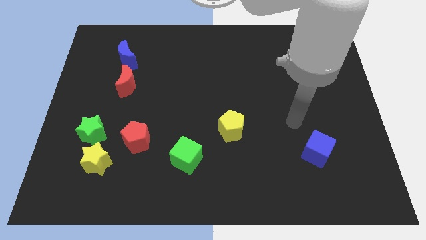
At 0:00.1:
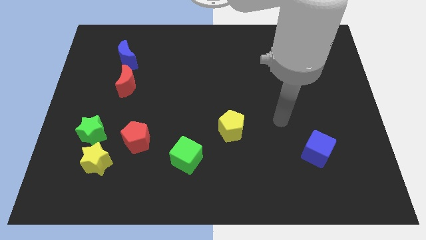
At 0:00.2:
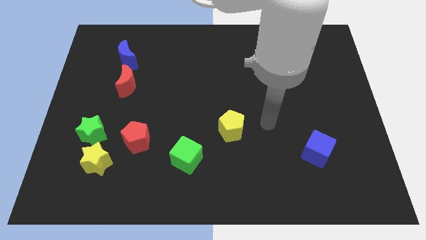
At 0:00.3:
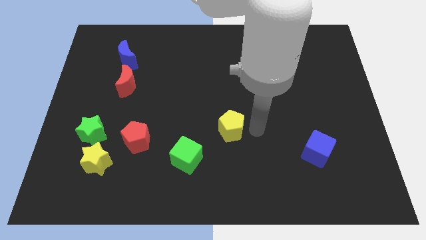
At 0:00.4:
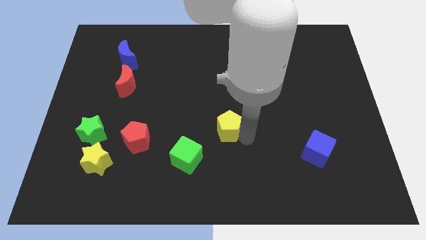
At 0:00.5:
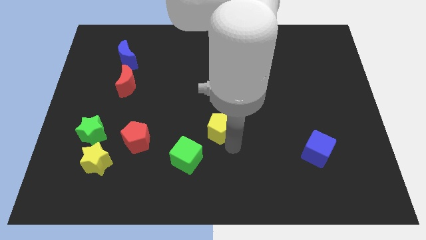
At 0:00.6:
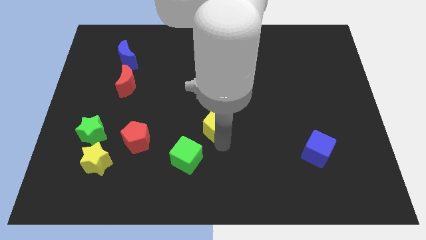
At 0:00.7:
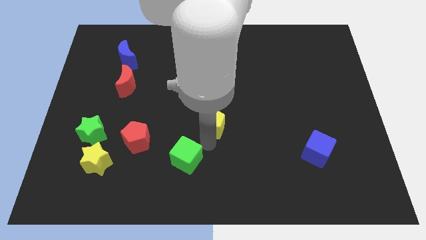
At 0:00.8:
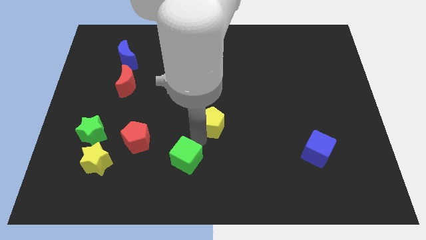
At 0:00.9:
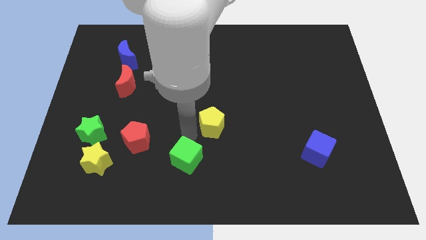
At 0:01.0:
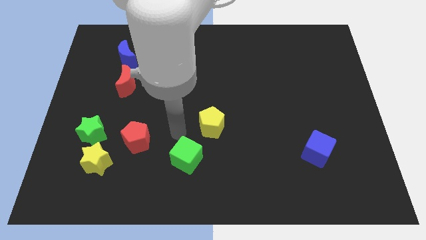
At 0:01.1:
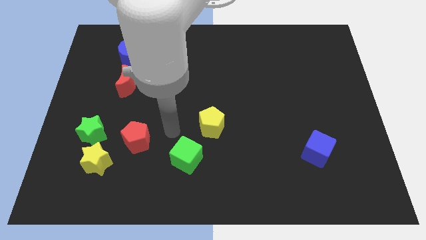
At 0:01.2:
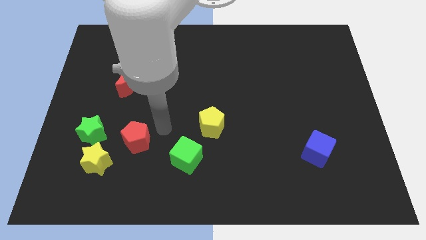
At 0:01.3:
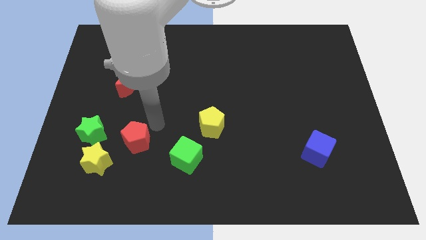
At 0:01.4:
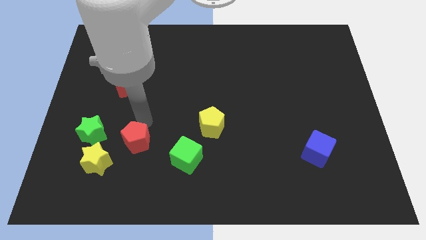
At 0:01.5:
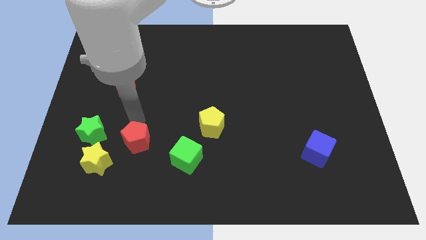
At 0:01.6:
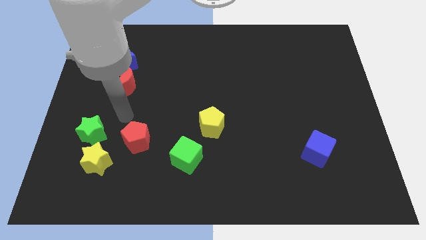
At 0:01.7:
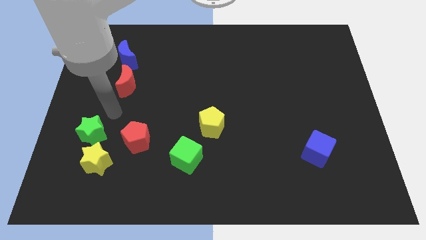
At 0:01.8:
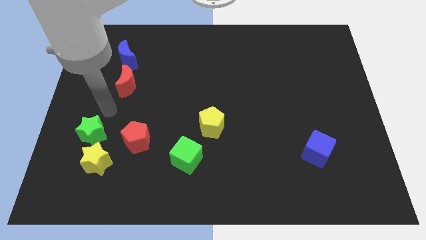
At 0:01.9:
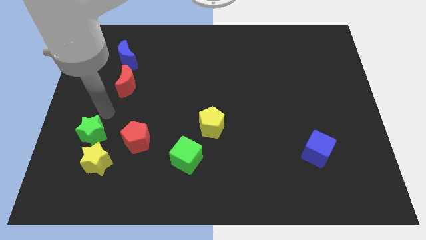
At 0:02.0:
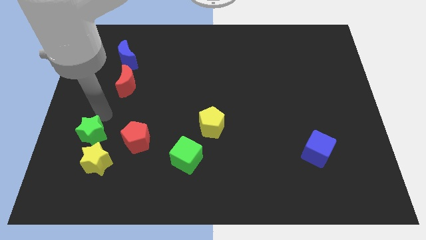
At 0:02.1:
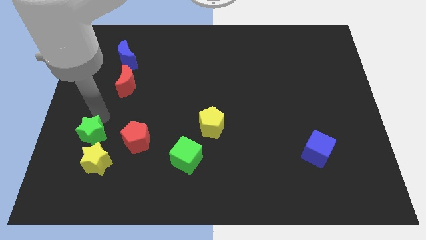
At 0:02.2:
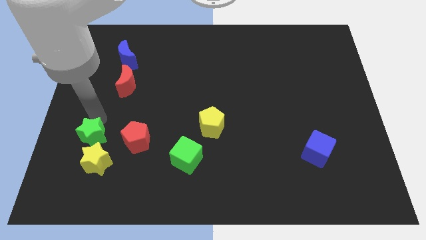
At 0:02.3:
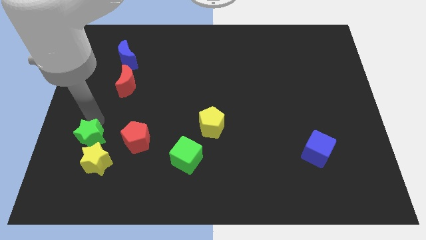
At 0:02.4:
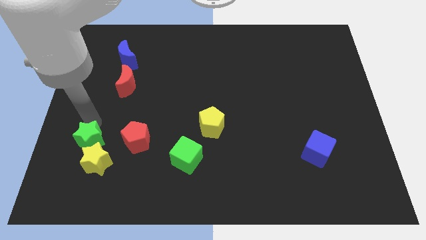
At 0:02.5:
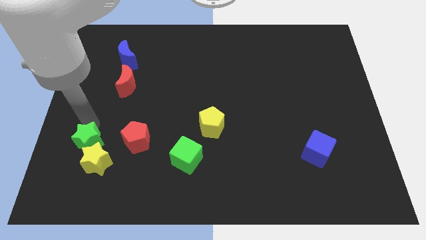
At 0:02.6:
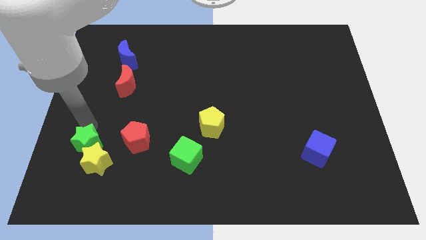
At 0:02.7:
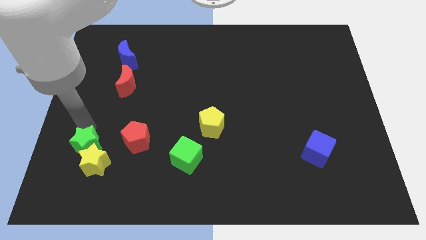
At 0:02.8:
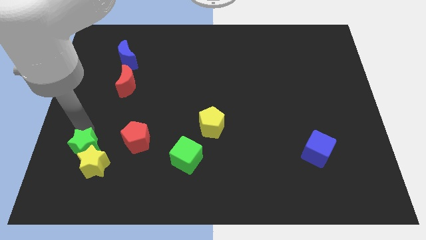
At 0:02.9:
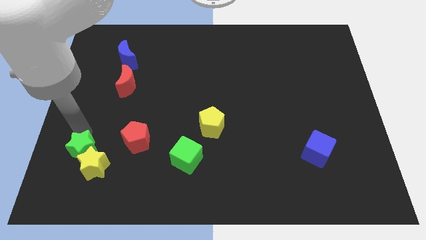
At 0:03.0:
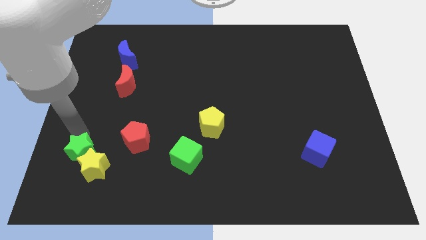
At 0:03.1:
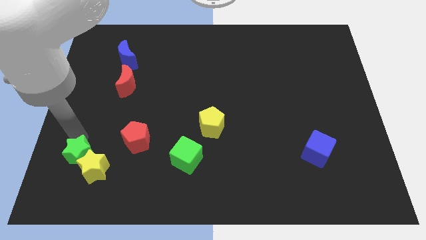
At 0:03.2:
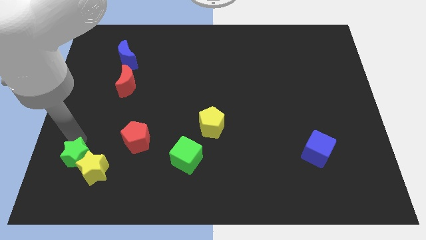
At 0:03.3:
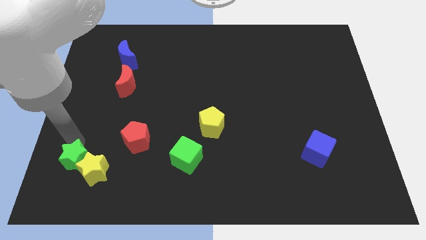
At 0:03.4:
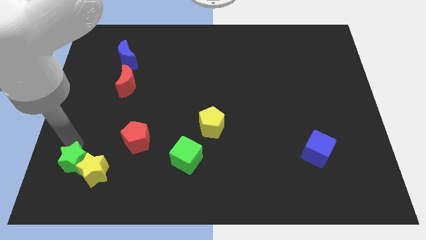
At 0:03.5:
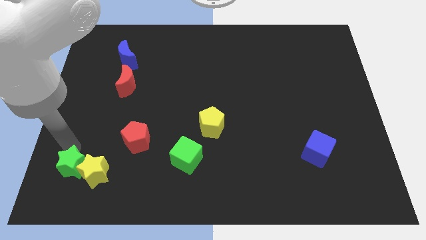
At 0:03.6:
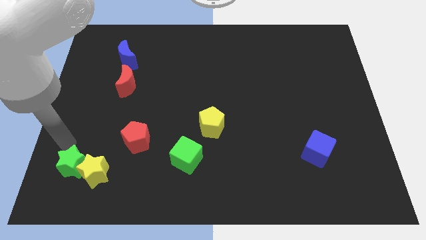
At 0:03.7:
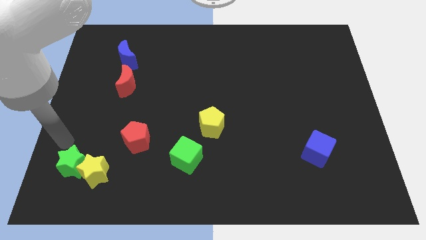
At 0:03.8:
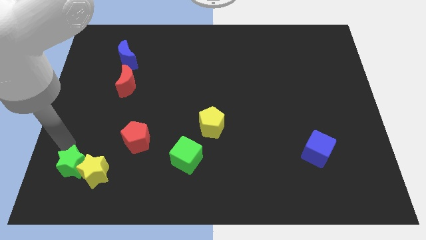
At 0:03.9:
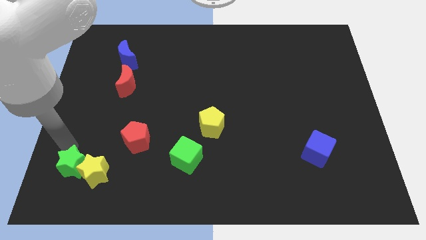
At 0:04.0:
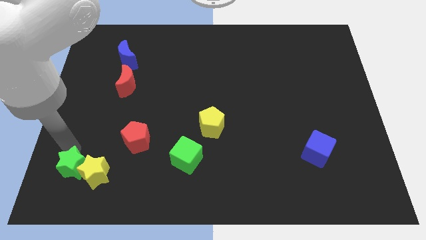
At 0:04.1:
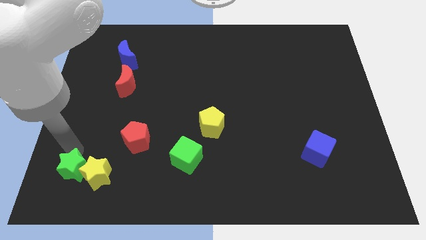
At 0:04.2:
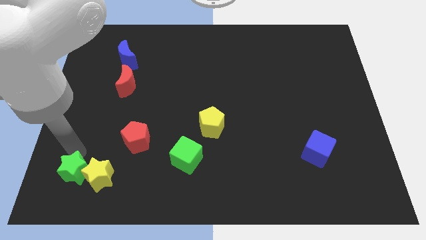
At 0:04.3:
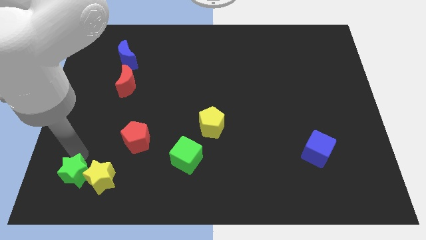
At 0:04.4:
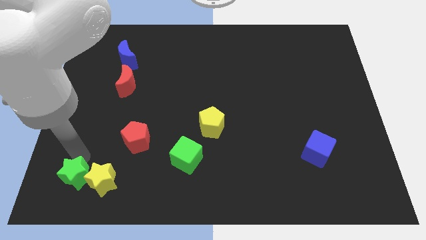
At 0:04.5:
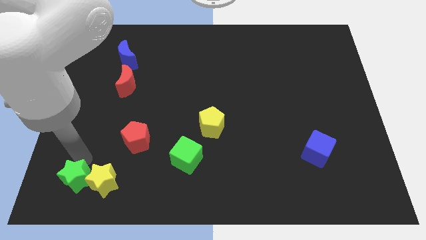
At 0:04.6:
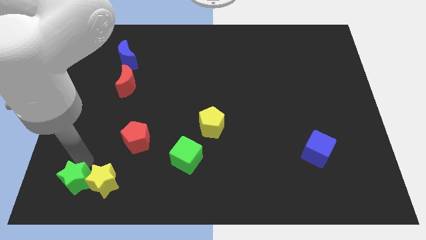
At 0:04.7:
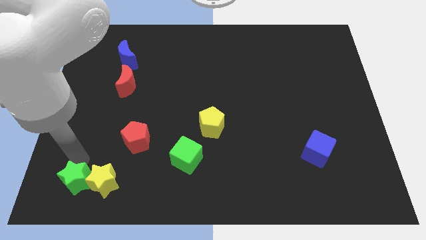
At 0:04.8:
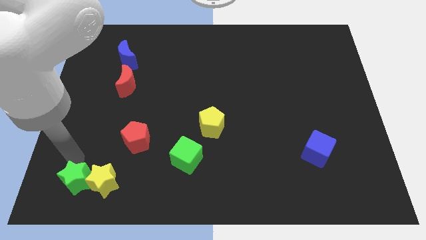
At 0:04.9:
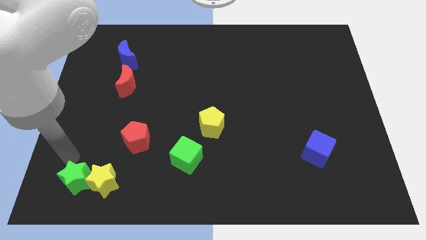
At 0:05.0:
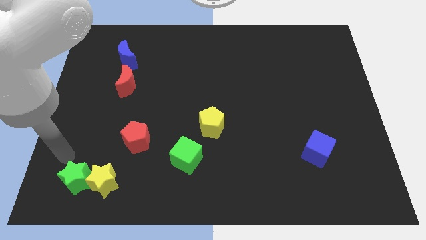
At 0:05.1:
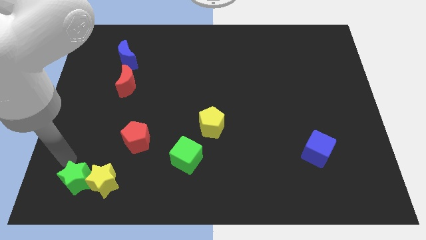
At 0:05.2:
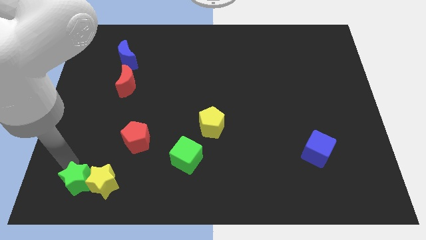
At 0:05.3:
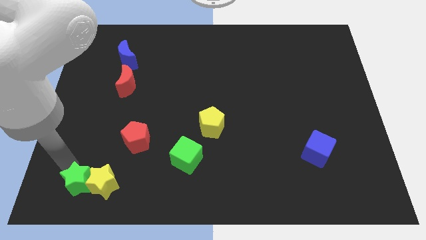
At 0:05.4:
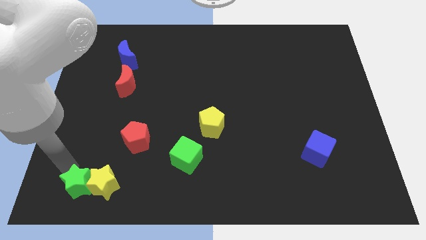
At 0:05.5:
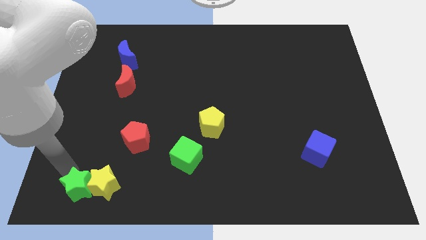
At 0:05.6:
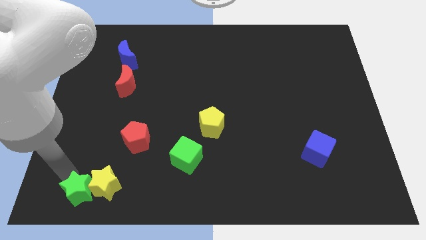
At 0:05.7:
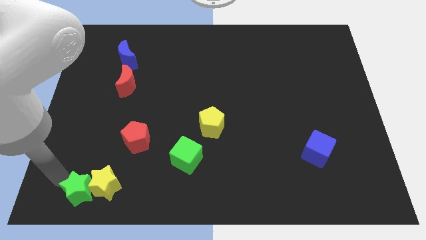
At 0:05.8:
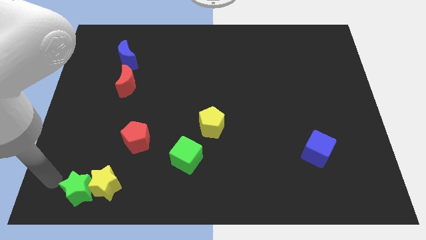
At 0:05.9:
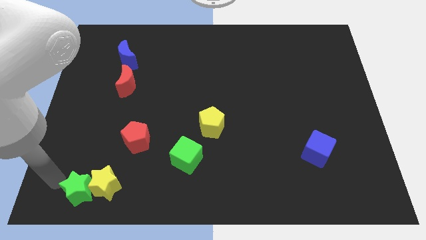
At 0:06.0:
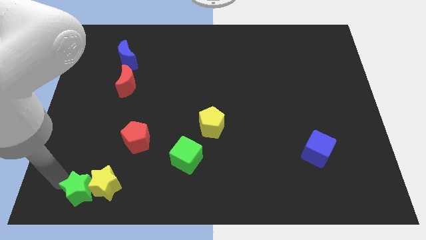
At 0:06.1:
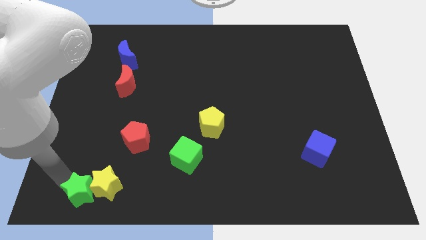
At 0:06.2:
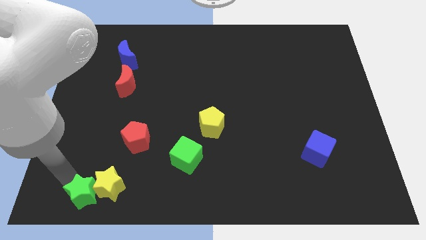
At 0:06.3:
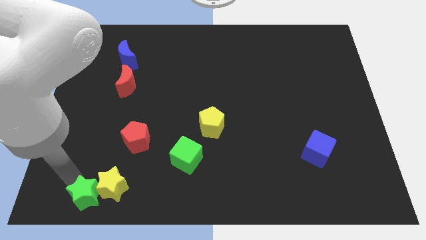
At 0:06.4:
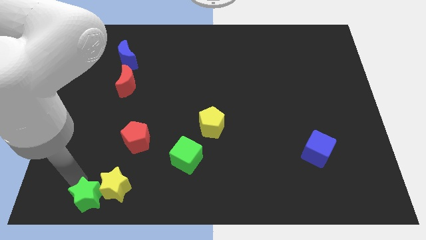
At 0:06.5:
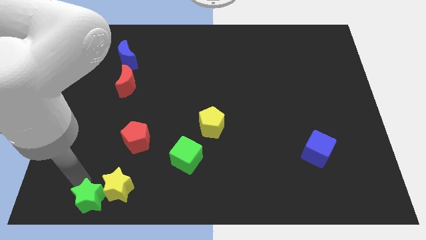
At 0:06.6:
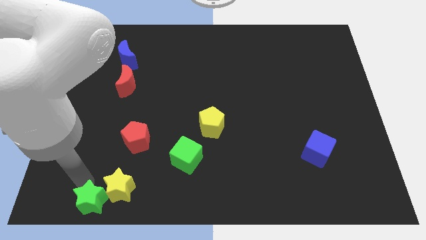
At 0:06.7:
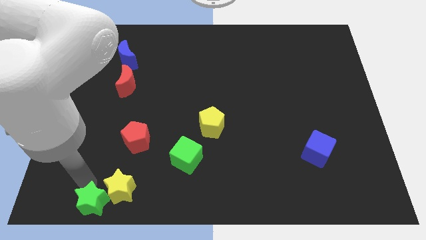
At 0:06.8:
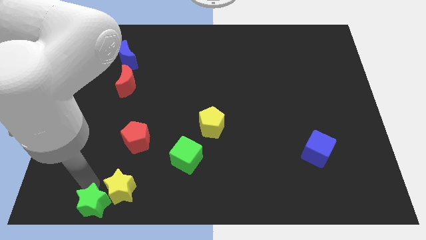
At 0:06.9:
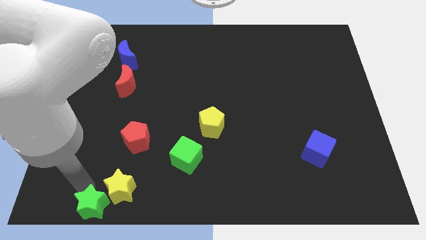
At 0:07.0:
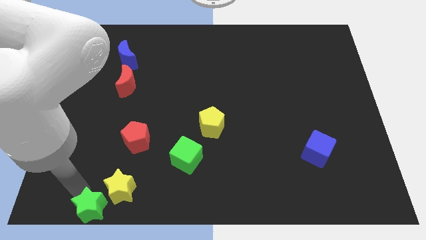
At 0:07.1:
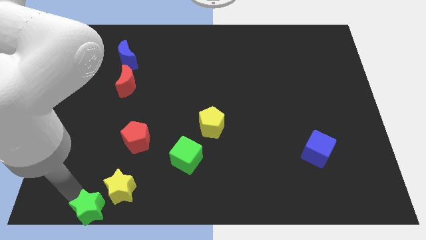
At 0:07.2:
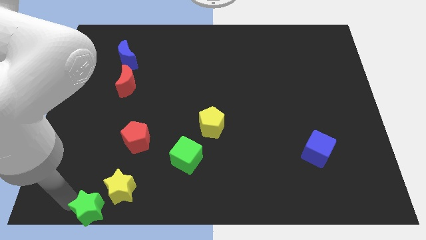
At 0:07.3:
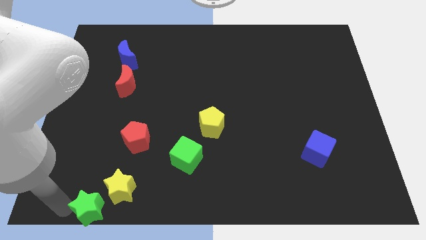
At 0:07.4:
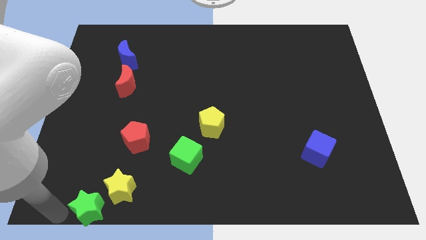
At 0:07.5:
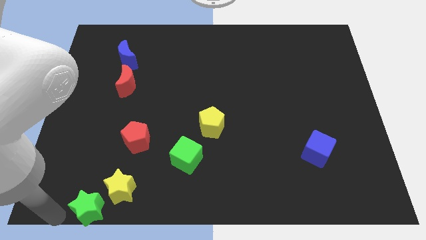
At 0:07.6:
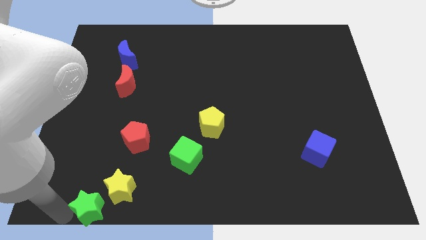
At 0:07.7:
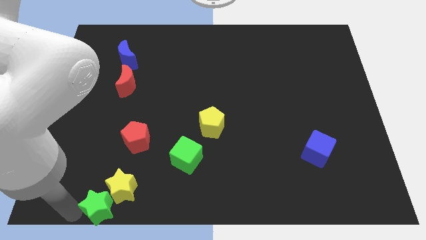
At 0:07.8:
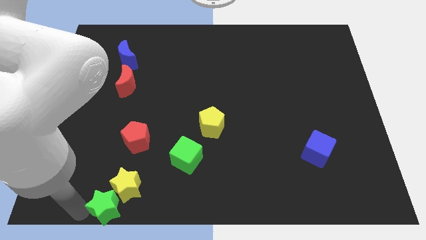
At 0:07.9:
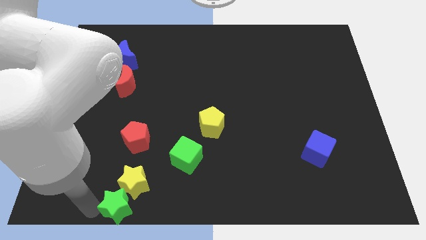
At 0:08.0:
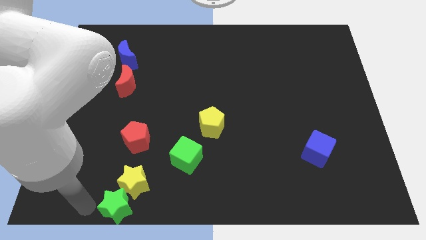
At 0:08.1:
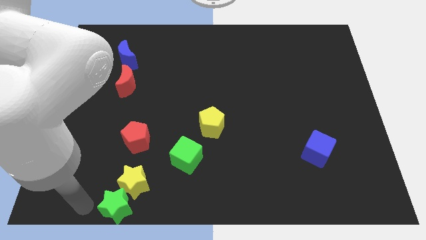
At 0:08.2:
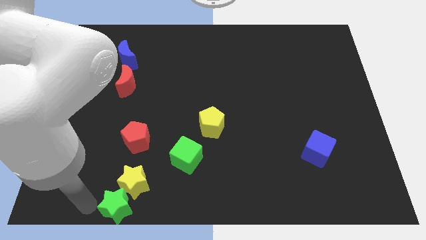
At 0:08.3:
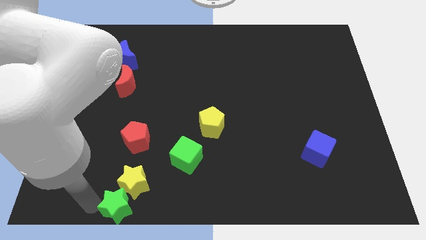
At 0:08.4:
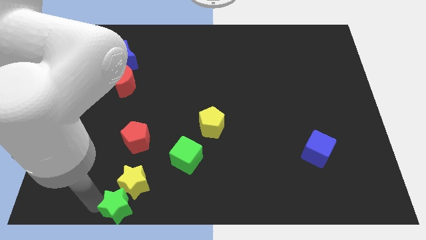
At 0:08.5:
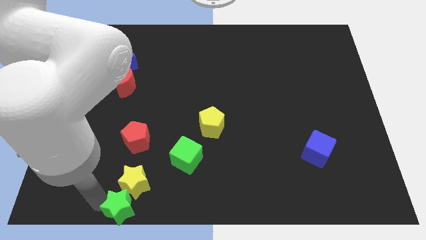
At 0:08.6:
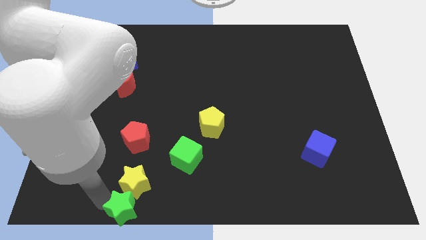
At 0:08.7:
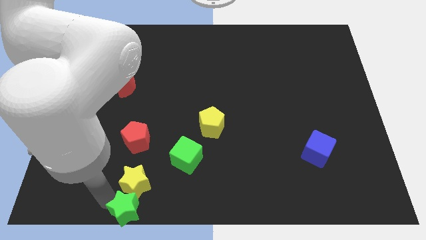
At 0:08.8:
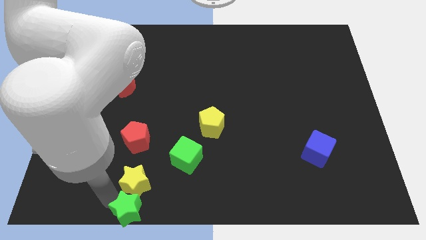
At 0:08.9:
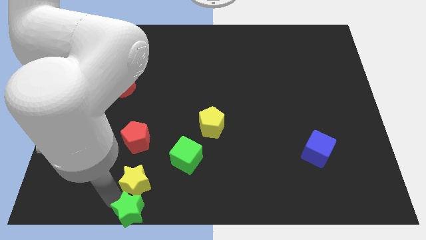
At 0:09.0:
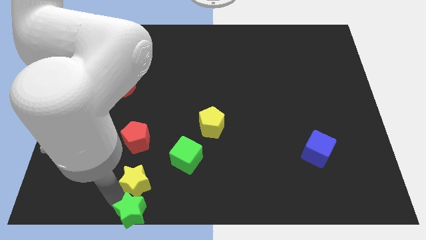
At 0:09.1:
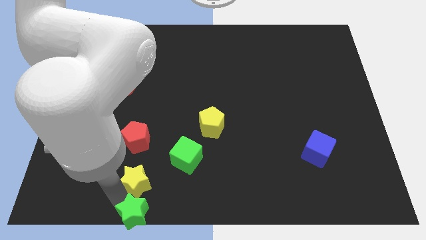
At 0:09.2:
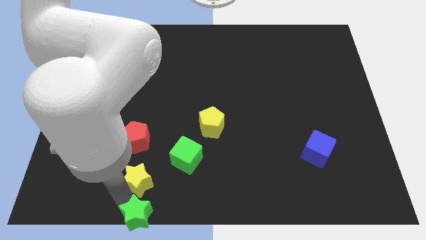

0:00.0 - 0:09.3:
put the green star to the bottom side
